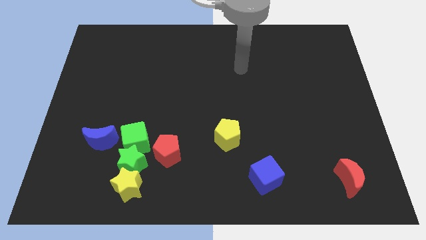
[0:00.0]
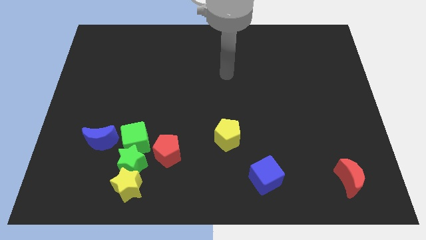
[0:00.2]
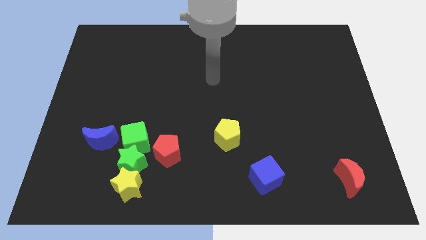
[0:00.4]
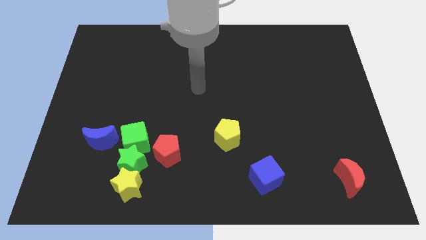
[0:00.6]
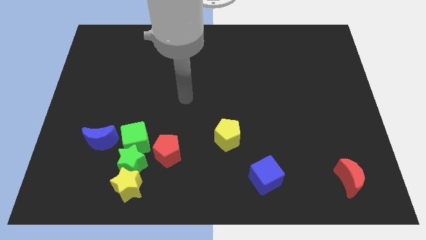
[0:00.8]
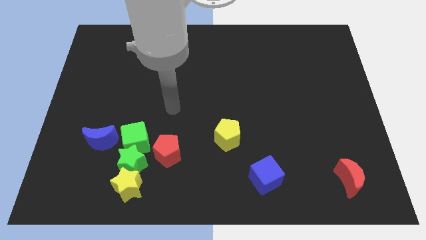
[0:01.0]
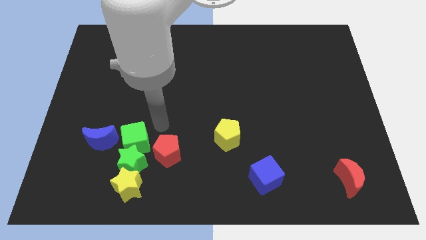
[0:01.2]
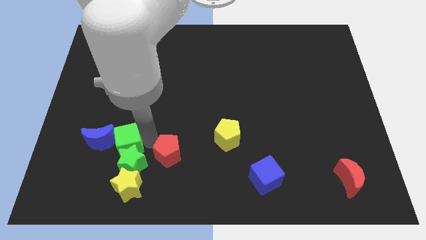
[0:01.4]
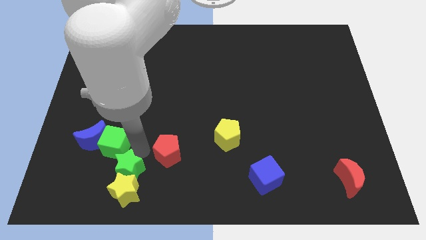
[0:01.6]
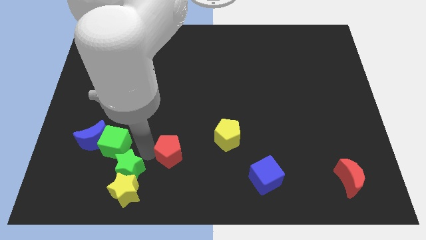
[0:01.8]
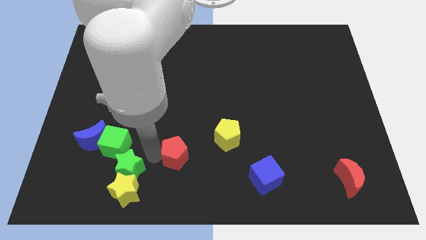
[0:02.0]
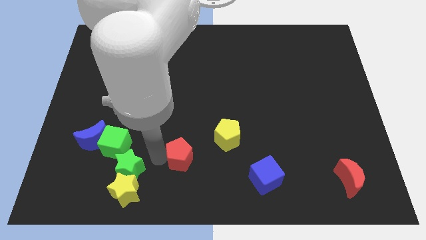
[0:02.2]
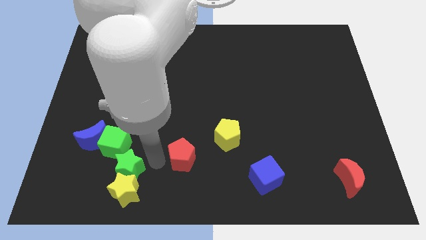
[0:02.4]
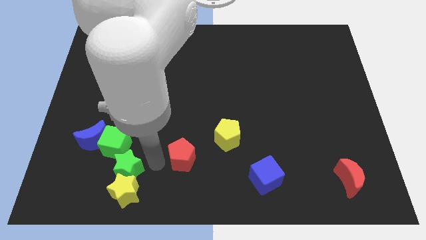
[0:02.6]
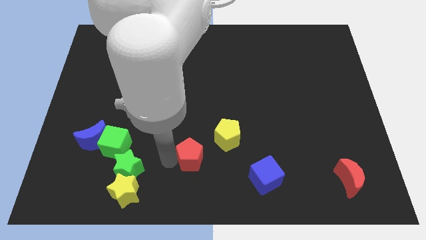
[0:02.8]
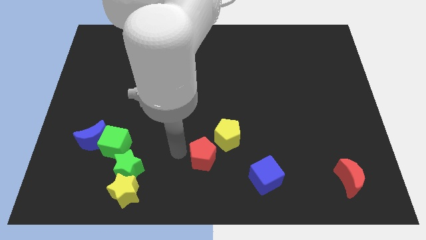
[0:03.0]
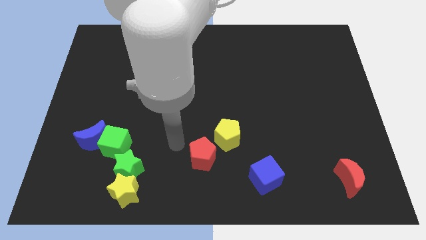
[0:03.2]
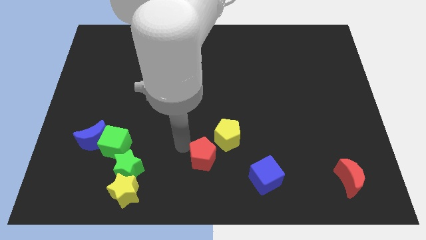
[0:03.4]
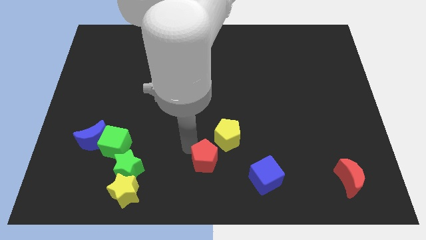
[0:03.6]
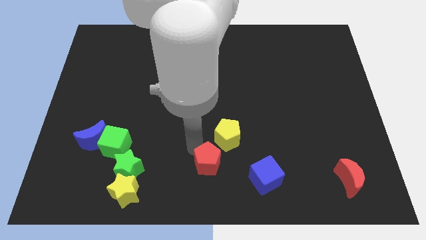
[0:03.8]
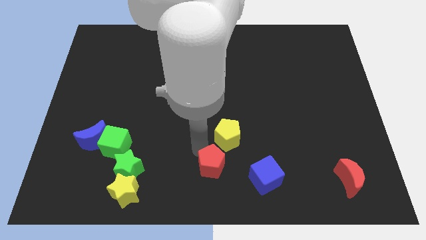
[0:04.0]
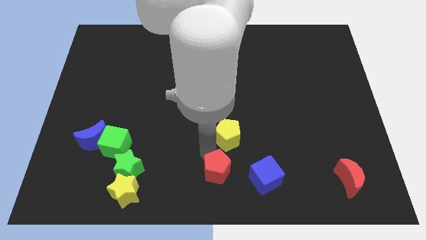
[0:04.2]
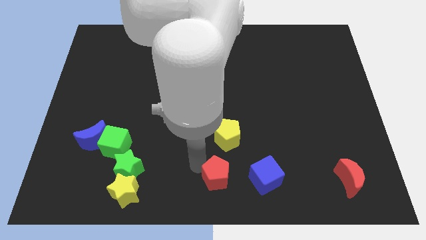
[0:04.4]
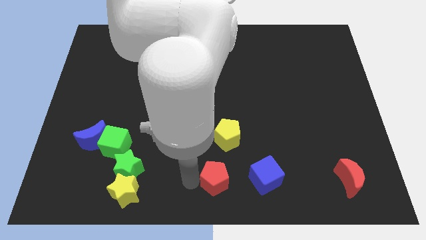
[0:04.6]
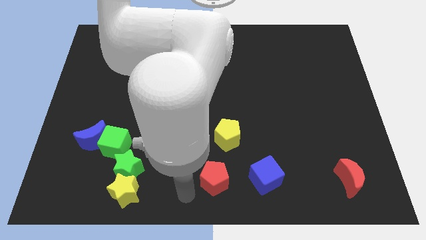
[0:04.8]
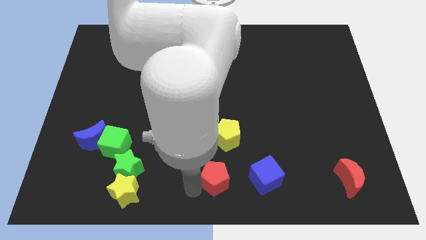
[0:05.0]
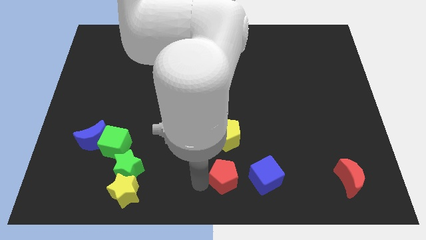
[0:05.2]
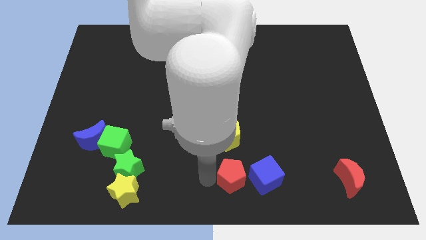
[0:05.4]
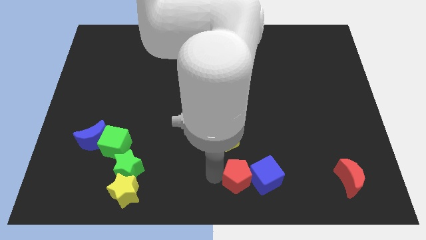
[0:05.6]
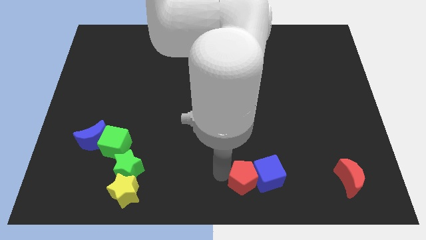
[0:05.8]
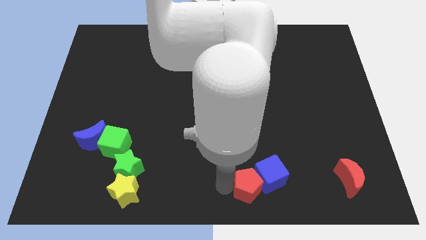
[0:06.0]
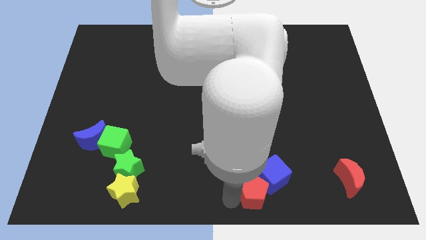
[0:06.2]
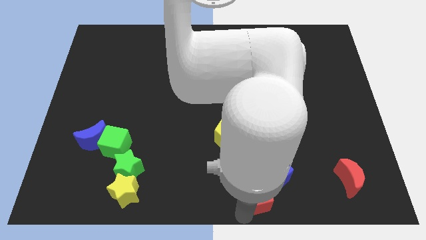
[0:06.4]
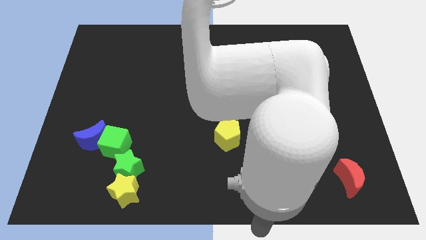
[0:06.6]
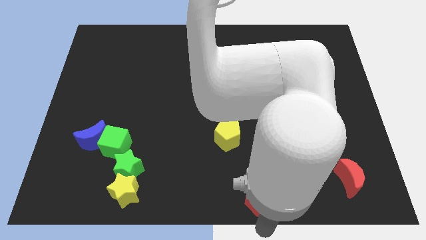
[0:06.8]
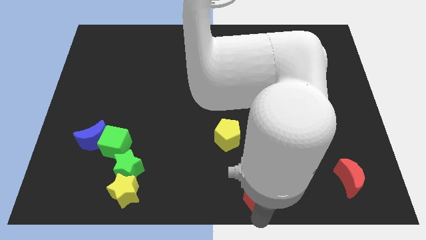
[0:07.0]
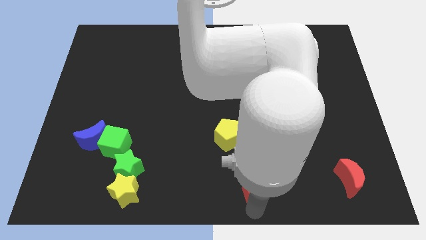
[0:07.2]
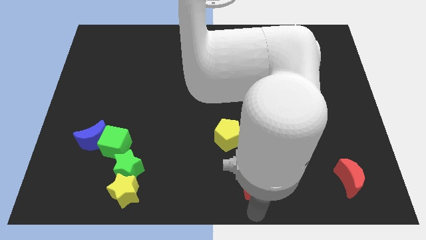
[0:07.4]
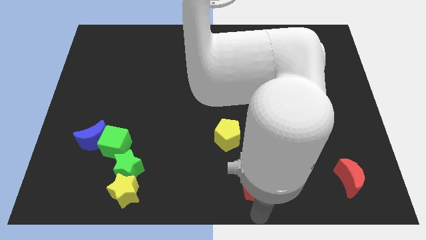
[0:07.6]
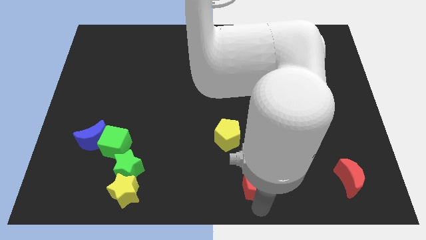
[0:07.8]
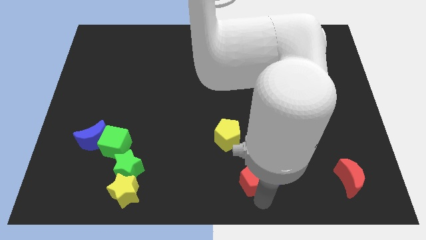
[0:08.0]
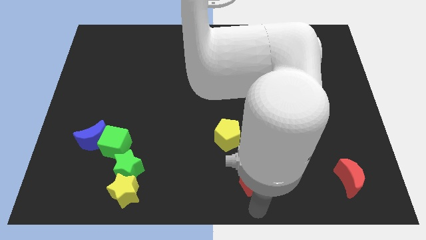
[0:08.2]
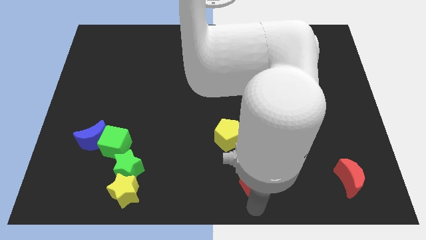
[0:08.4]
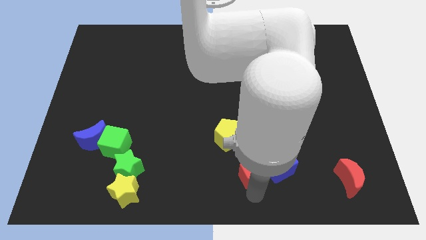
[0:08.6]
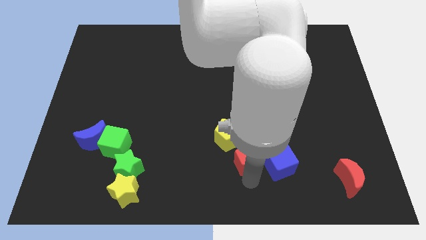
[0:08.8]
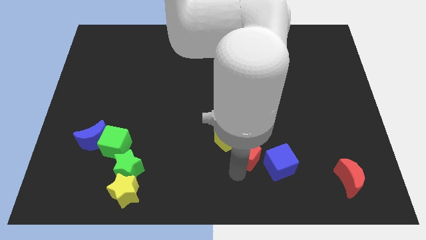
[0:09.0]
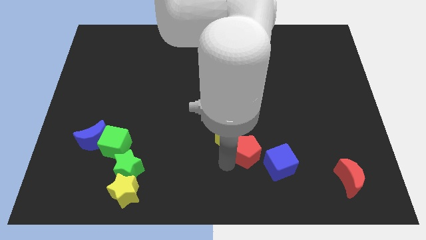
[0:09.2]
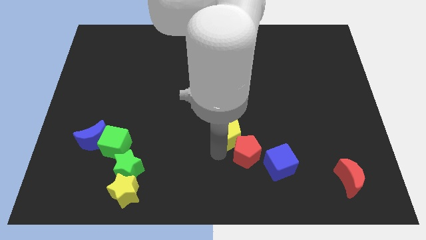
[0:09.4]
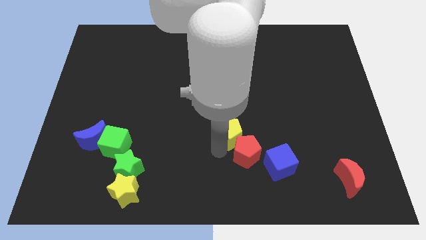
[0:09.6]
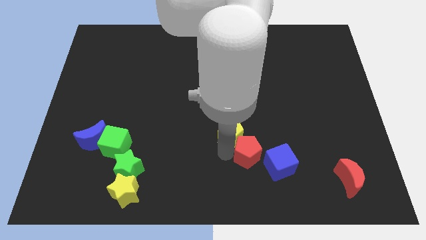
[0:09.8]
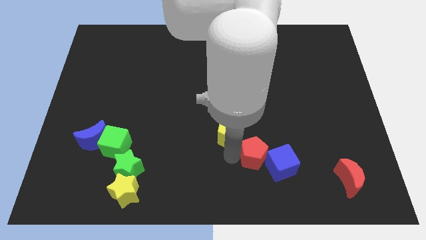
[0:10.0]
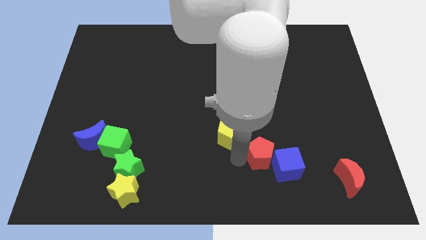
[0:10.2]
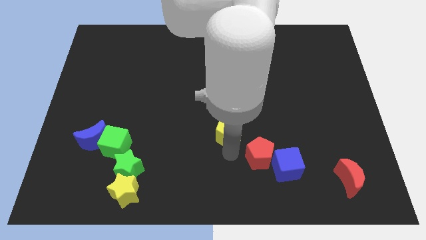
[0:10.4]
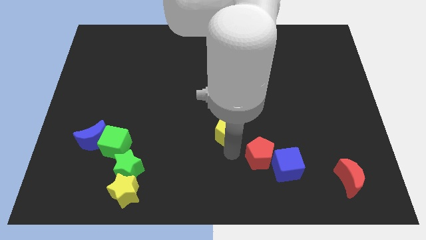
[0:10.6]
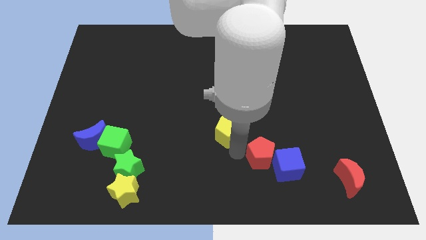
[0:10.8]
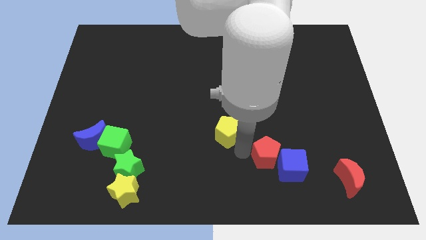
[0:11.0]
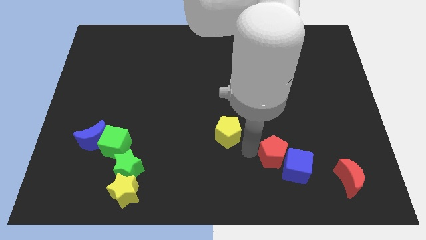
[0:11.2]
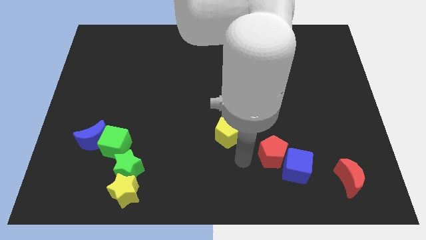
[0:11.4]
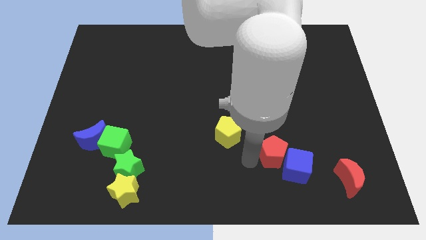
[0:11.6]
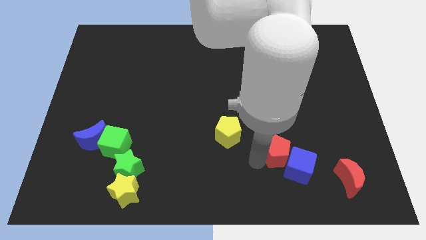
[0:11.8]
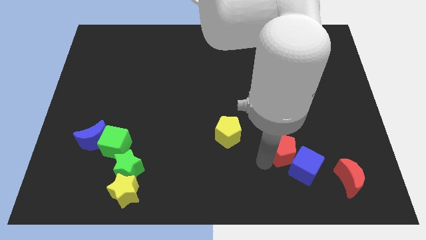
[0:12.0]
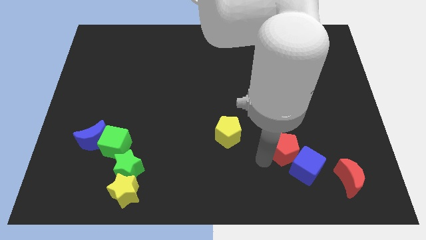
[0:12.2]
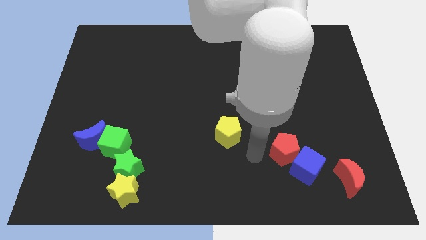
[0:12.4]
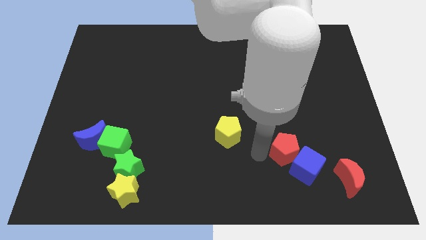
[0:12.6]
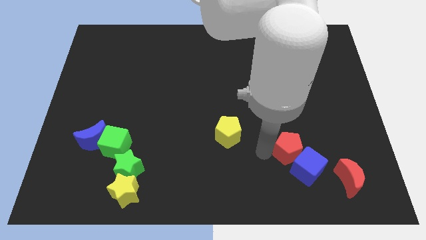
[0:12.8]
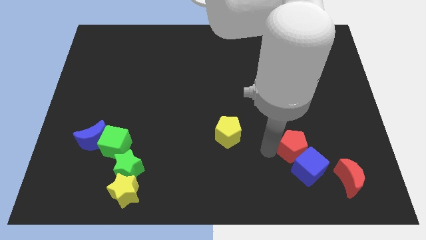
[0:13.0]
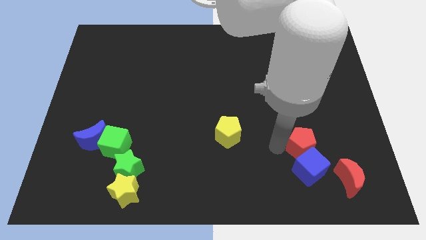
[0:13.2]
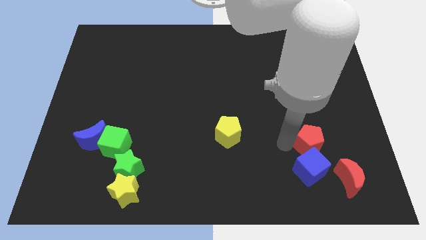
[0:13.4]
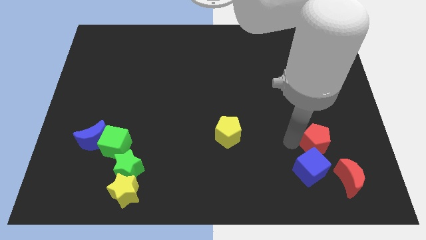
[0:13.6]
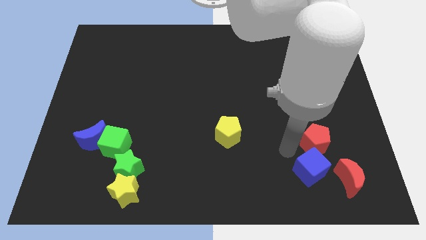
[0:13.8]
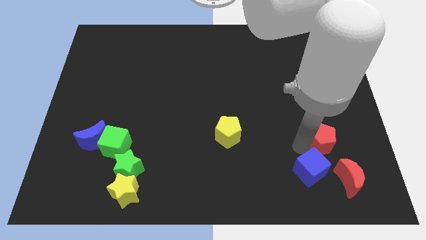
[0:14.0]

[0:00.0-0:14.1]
put the red pentagon to the top of the red moon

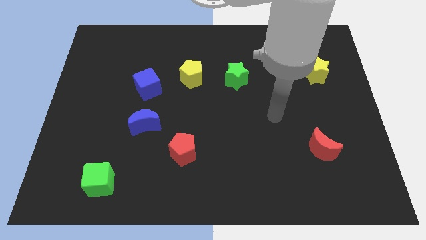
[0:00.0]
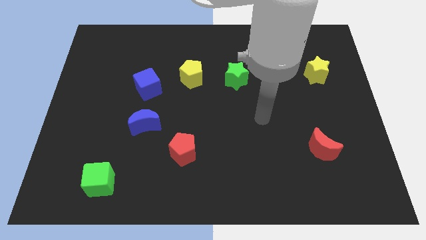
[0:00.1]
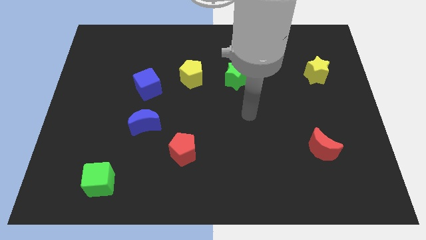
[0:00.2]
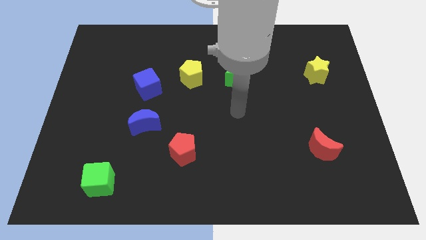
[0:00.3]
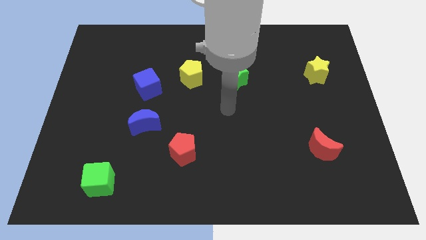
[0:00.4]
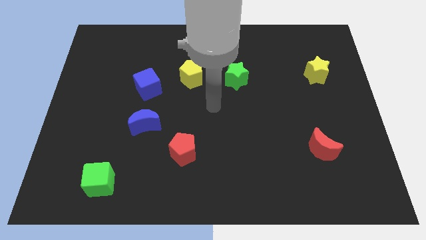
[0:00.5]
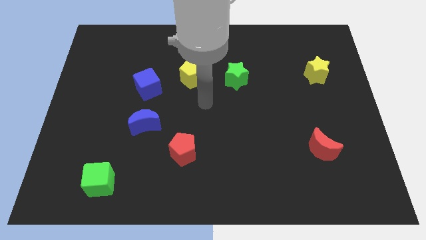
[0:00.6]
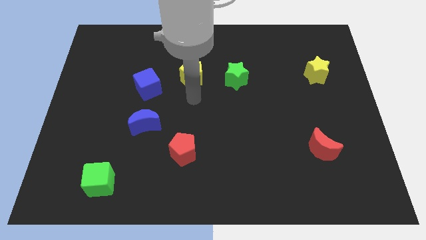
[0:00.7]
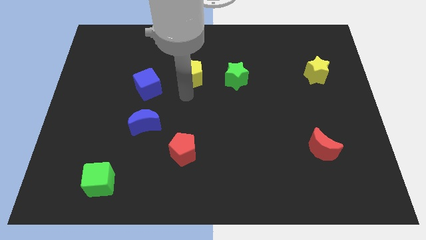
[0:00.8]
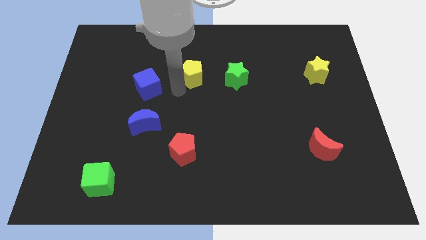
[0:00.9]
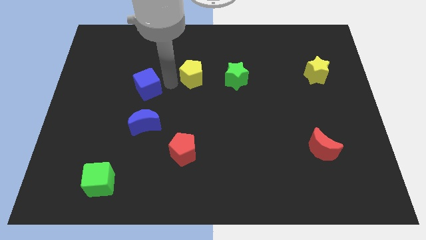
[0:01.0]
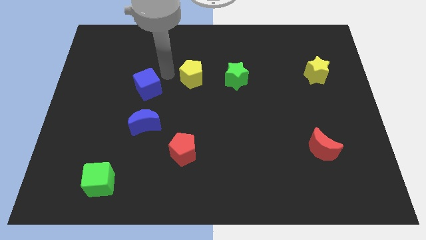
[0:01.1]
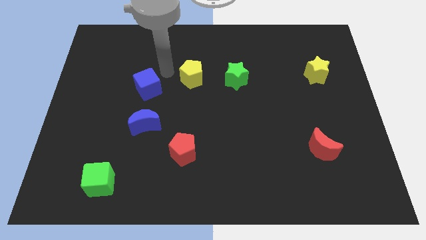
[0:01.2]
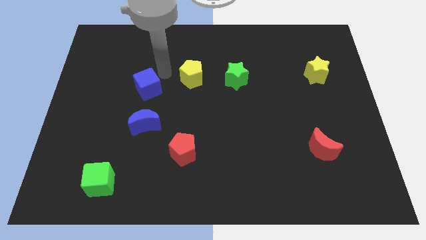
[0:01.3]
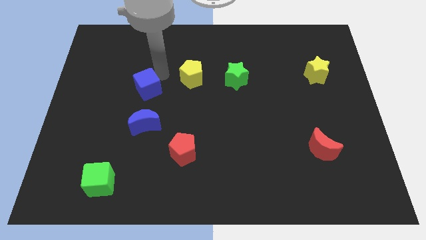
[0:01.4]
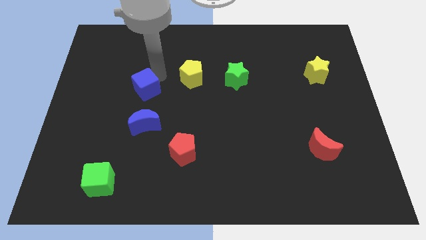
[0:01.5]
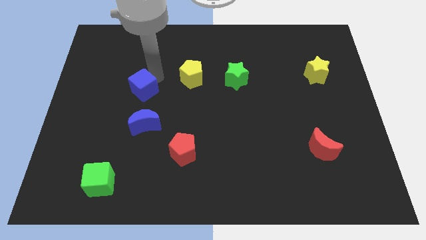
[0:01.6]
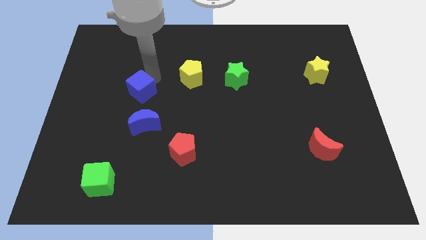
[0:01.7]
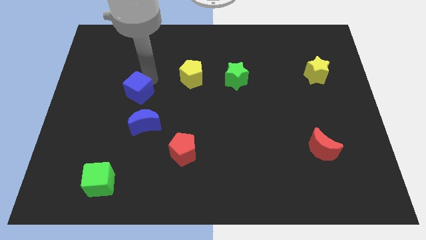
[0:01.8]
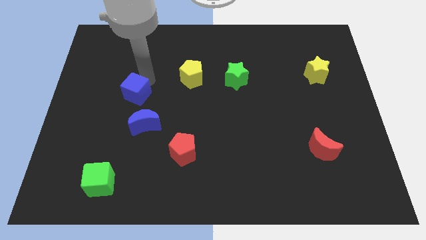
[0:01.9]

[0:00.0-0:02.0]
move the blue cube to the top left side of the blue moon
